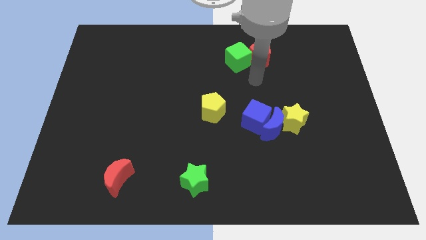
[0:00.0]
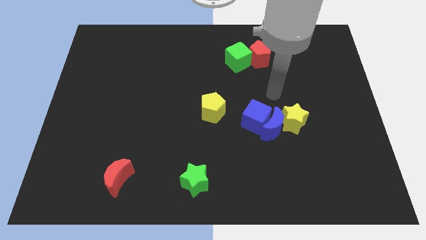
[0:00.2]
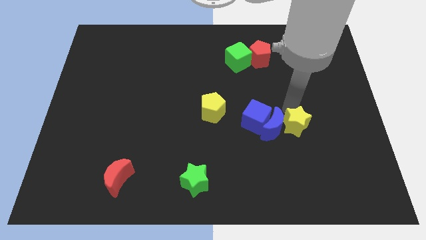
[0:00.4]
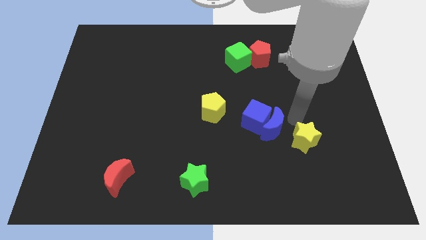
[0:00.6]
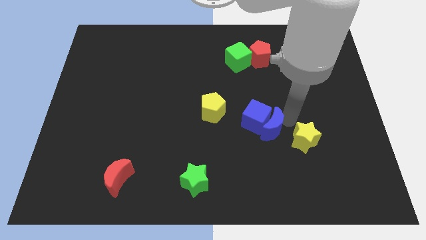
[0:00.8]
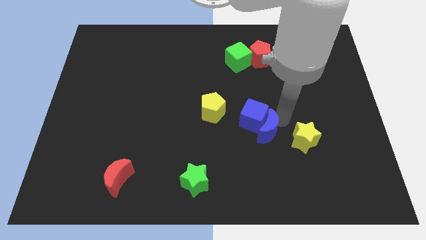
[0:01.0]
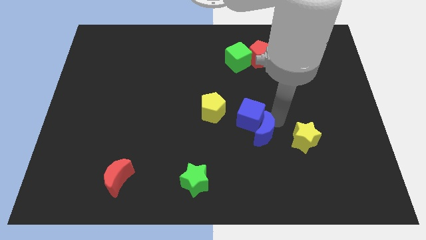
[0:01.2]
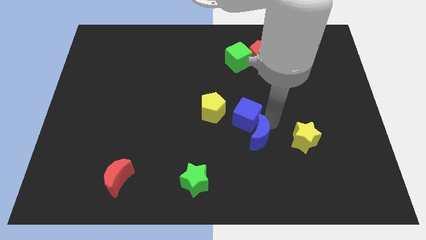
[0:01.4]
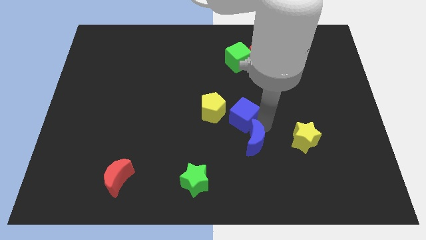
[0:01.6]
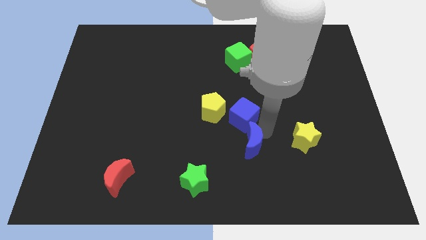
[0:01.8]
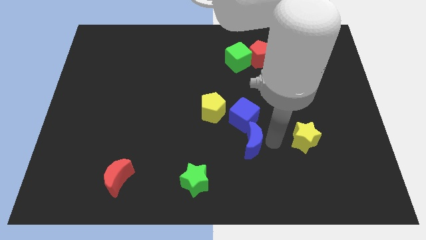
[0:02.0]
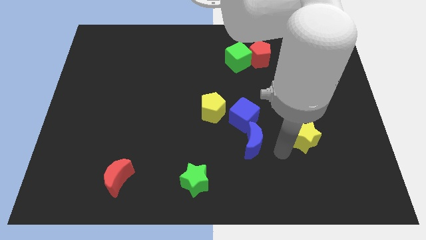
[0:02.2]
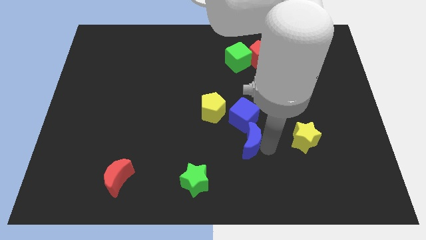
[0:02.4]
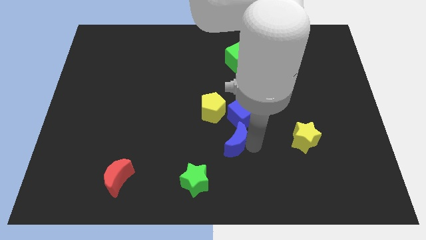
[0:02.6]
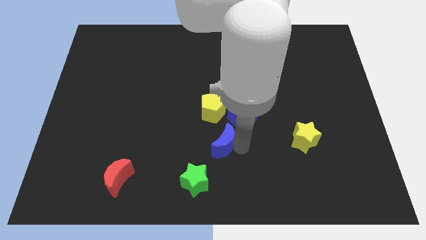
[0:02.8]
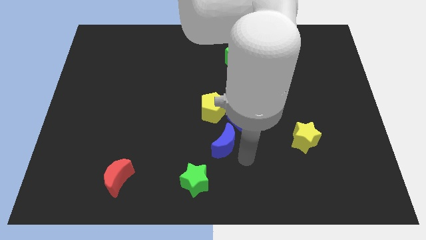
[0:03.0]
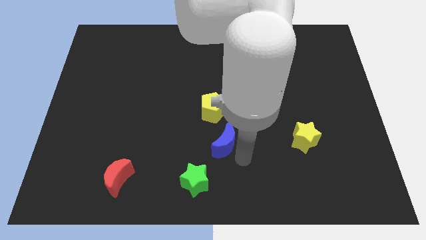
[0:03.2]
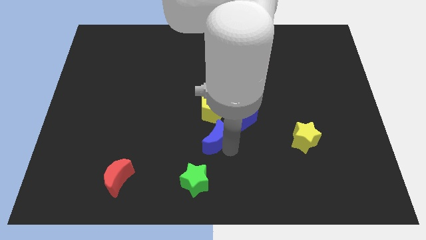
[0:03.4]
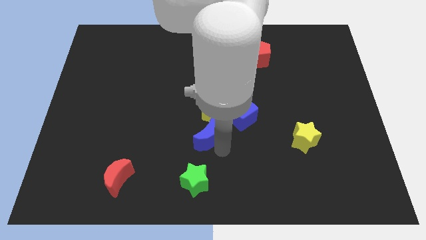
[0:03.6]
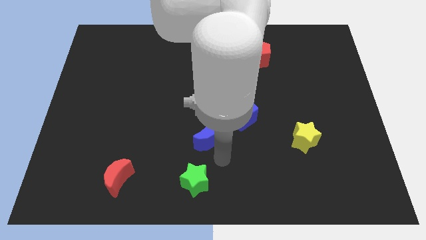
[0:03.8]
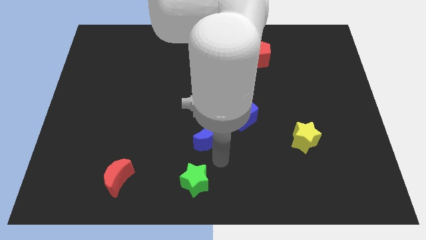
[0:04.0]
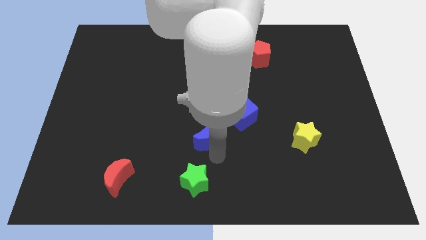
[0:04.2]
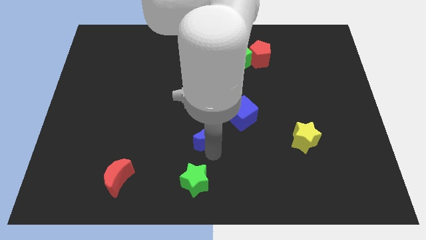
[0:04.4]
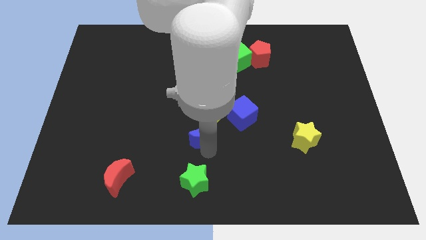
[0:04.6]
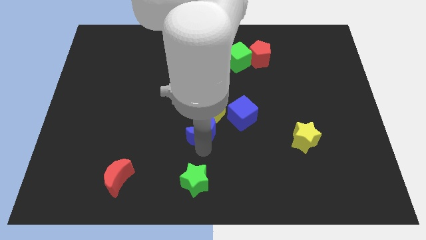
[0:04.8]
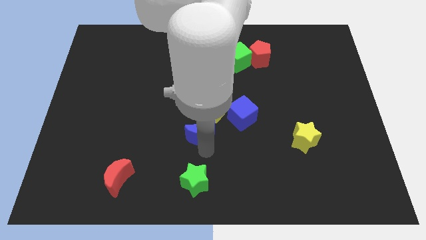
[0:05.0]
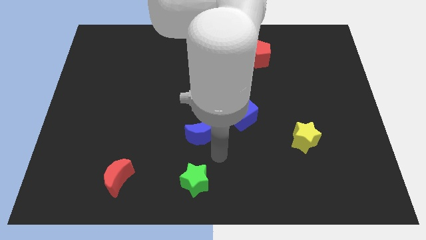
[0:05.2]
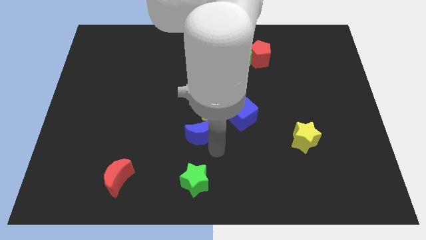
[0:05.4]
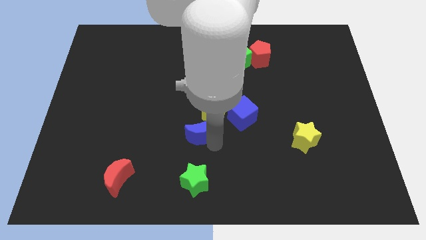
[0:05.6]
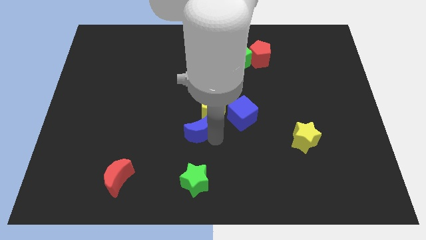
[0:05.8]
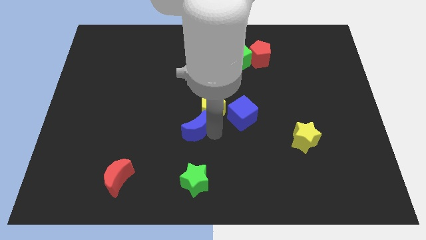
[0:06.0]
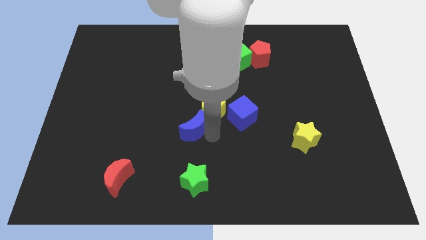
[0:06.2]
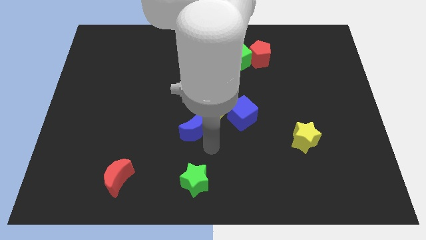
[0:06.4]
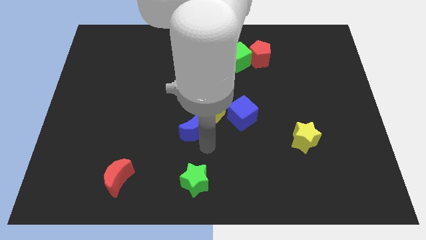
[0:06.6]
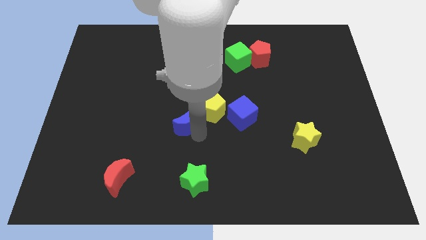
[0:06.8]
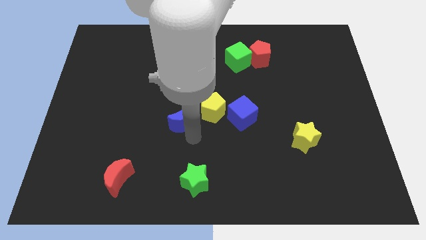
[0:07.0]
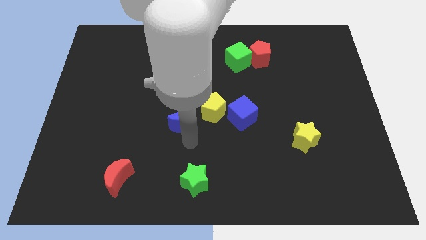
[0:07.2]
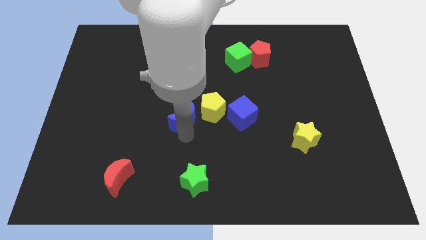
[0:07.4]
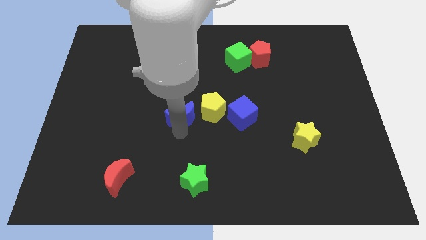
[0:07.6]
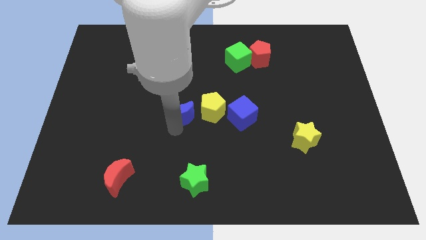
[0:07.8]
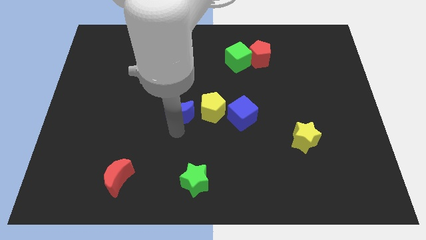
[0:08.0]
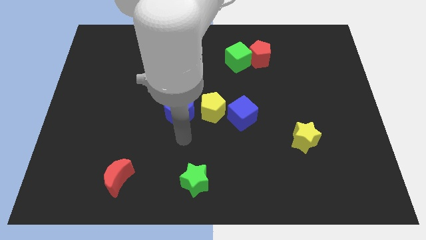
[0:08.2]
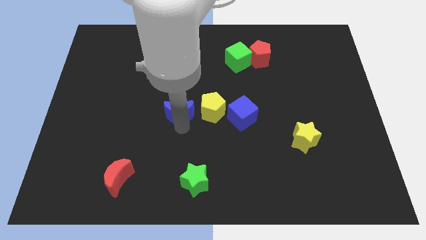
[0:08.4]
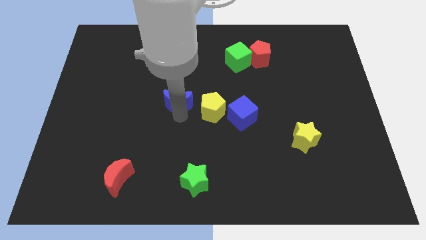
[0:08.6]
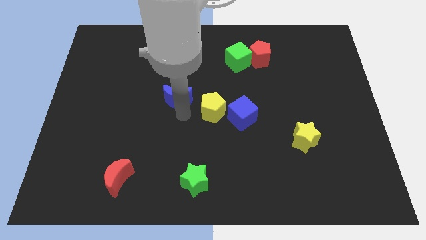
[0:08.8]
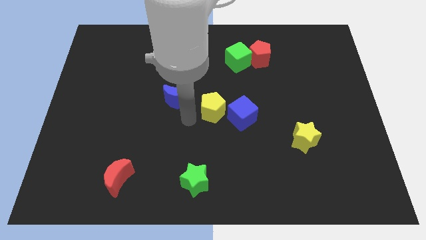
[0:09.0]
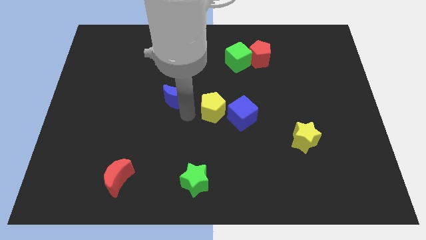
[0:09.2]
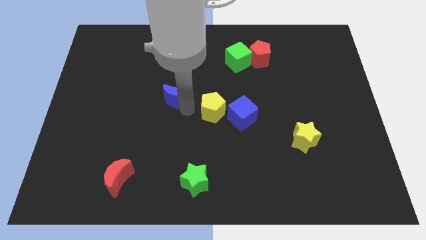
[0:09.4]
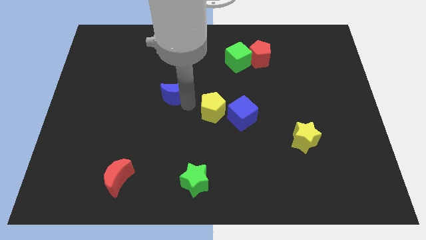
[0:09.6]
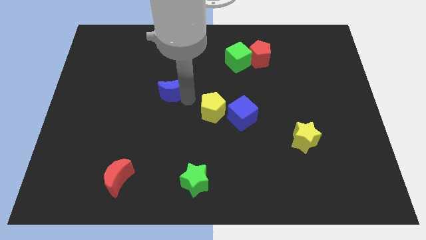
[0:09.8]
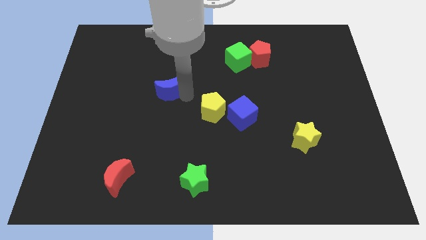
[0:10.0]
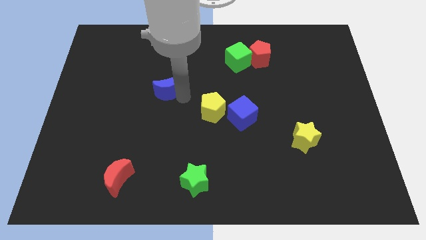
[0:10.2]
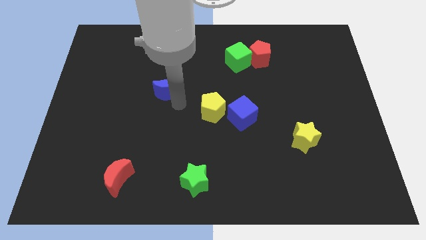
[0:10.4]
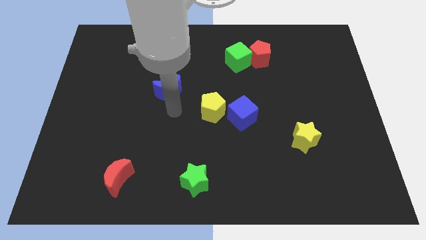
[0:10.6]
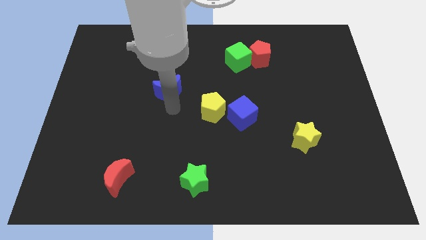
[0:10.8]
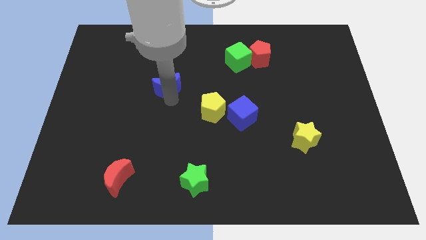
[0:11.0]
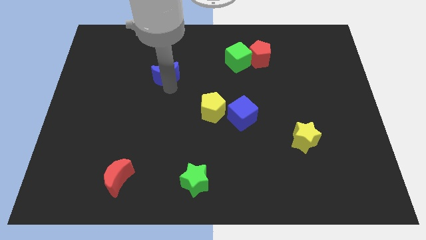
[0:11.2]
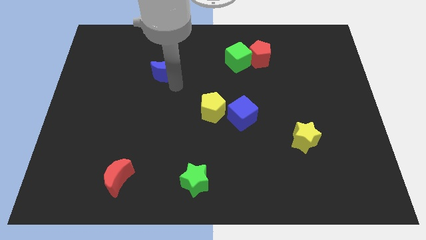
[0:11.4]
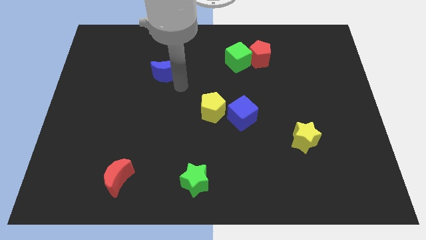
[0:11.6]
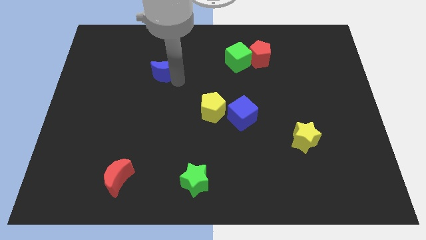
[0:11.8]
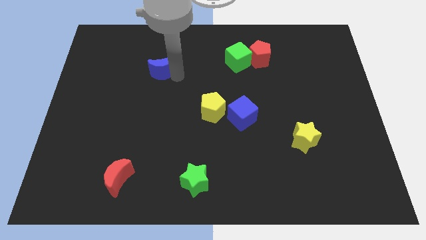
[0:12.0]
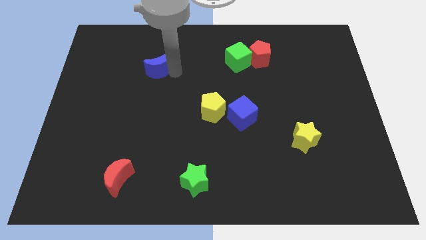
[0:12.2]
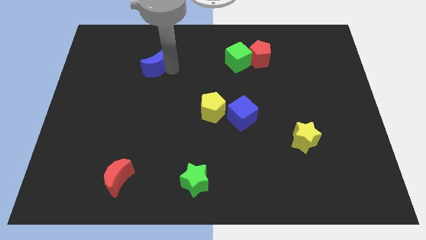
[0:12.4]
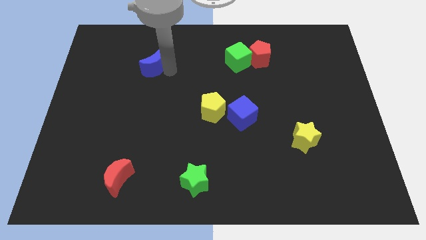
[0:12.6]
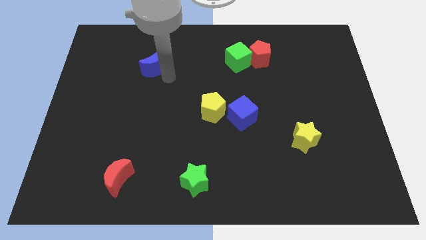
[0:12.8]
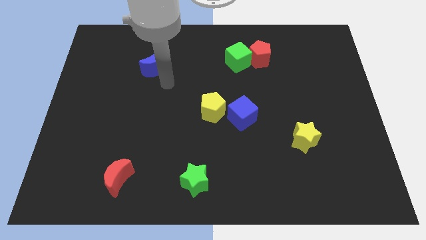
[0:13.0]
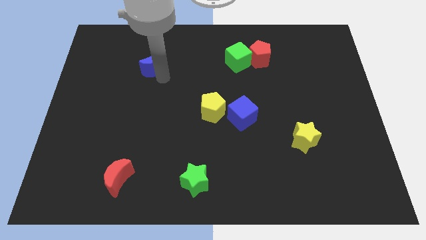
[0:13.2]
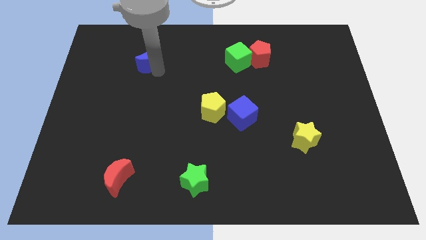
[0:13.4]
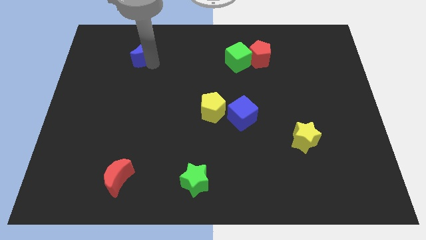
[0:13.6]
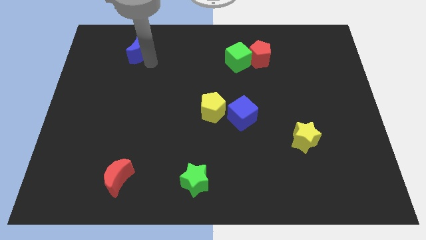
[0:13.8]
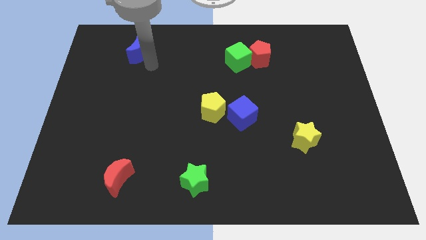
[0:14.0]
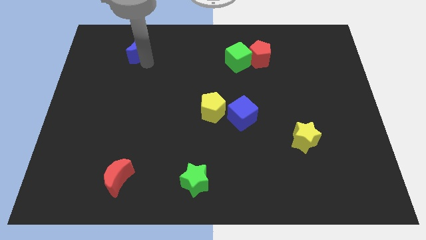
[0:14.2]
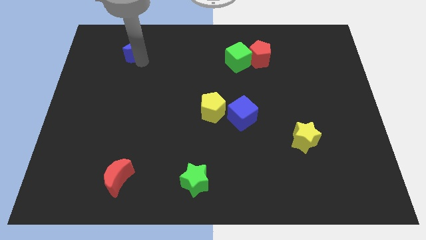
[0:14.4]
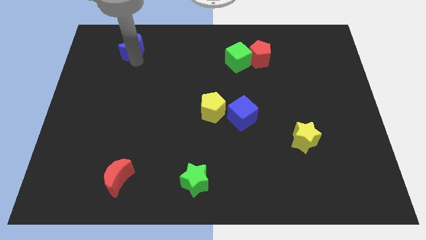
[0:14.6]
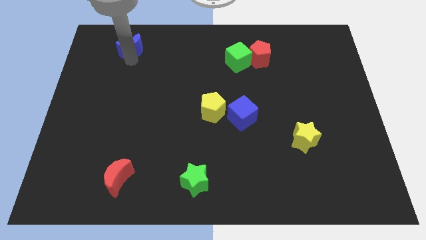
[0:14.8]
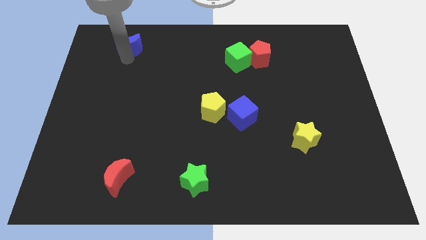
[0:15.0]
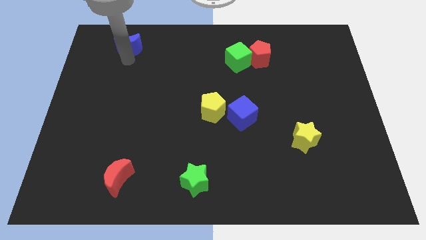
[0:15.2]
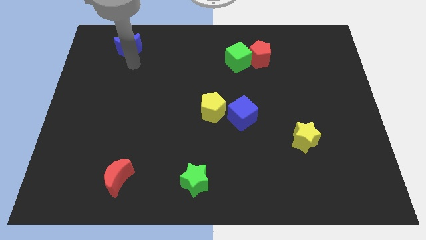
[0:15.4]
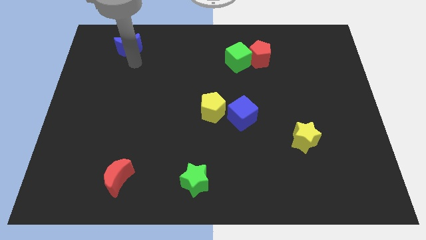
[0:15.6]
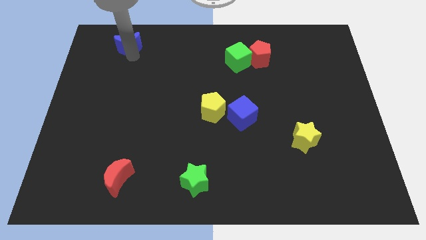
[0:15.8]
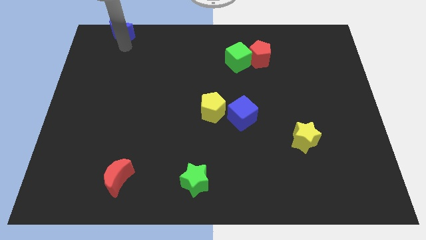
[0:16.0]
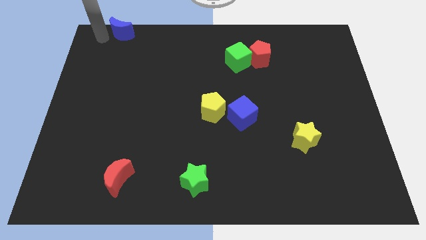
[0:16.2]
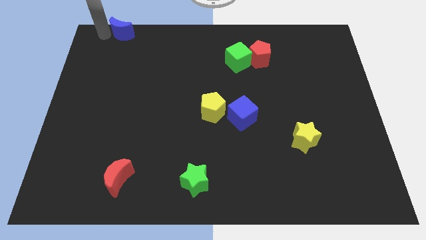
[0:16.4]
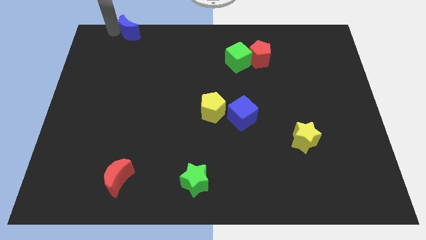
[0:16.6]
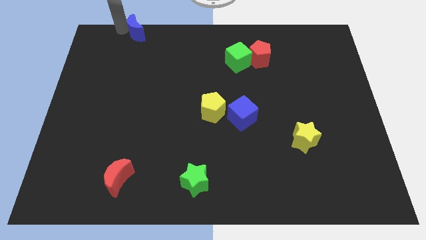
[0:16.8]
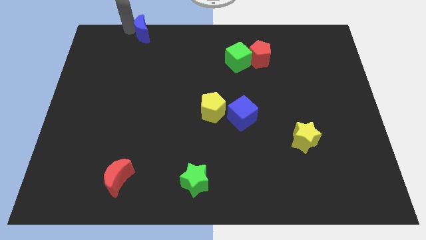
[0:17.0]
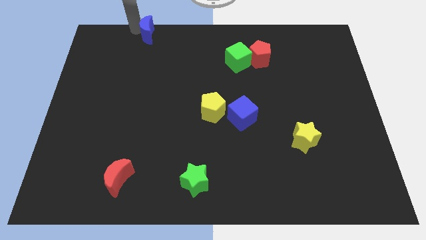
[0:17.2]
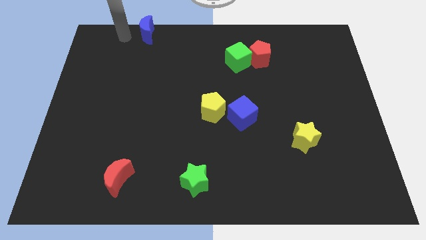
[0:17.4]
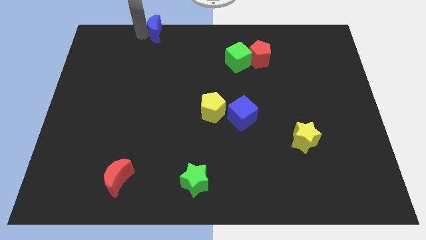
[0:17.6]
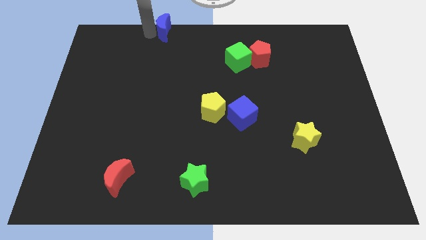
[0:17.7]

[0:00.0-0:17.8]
move the blue moon to the top side
